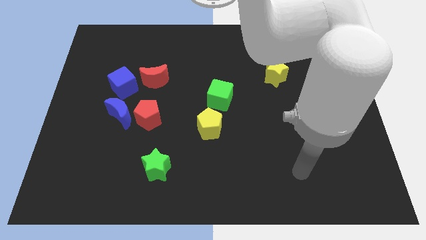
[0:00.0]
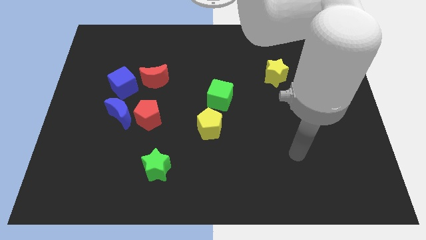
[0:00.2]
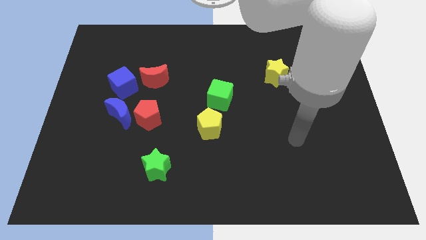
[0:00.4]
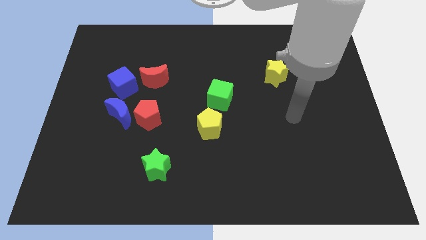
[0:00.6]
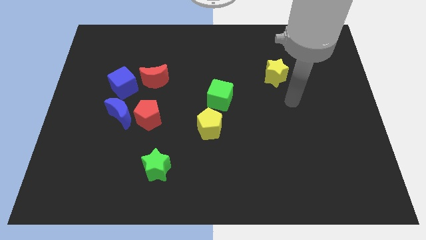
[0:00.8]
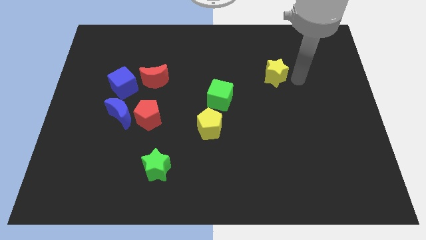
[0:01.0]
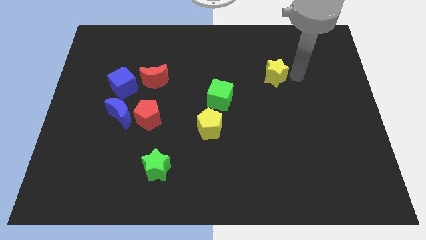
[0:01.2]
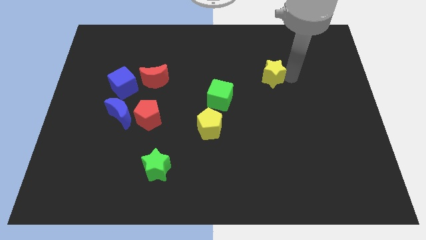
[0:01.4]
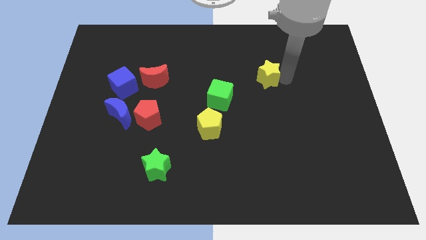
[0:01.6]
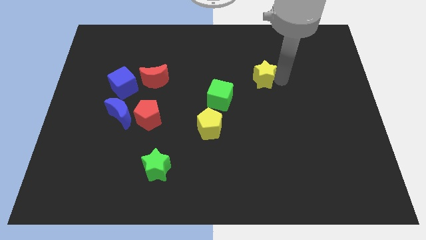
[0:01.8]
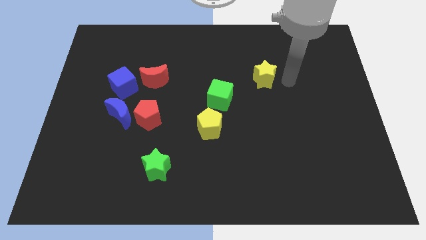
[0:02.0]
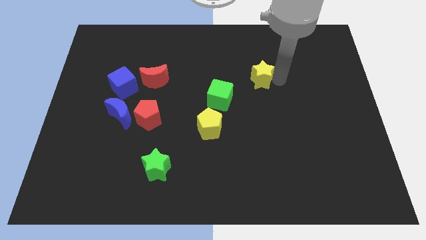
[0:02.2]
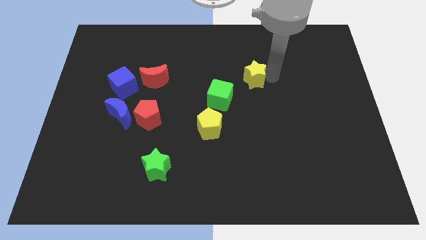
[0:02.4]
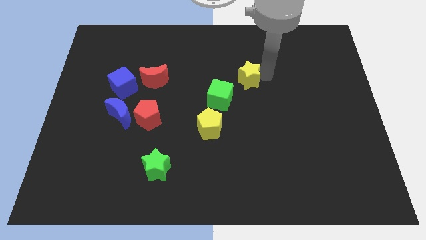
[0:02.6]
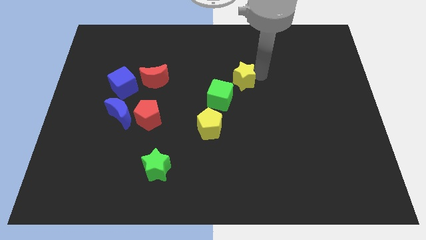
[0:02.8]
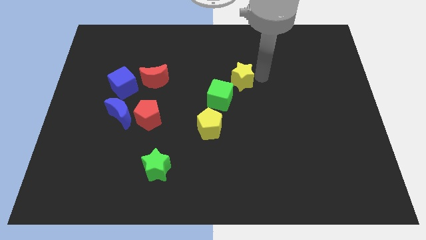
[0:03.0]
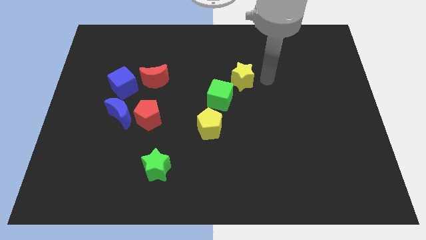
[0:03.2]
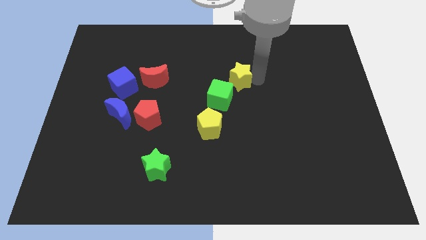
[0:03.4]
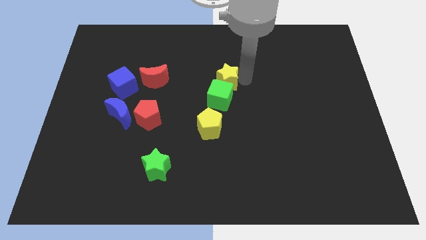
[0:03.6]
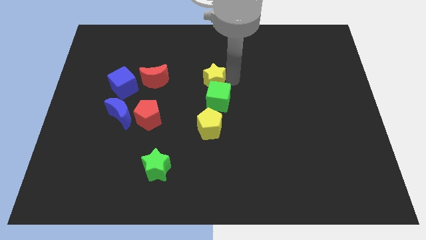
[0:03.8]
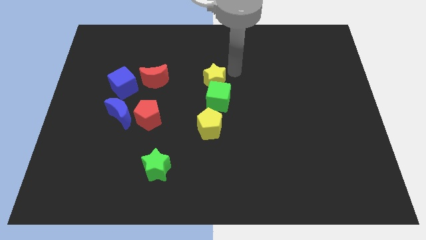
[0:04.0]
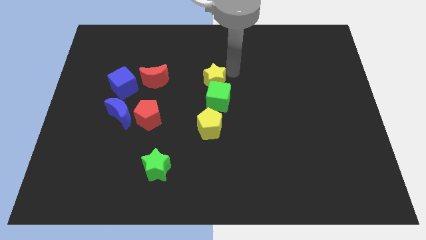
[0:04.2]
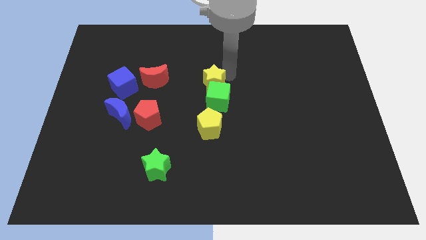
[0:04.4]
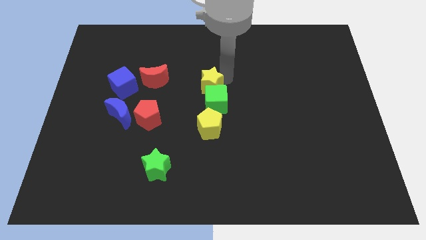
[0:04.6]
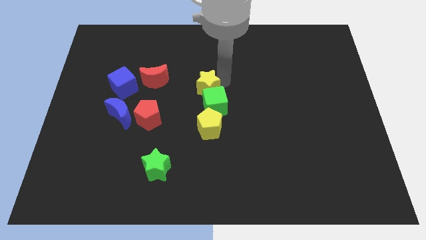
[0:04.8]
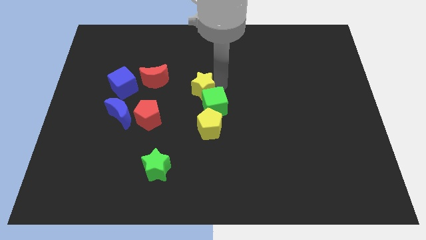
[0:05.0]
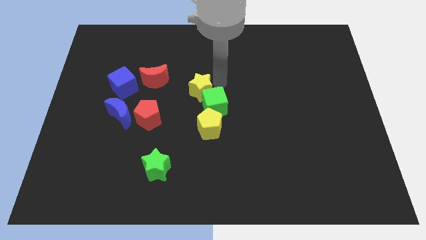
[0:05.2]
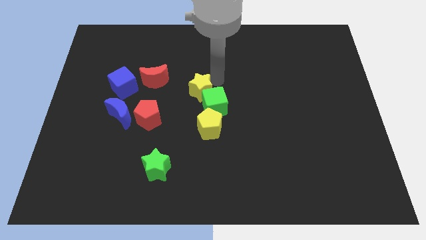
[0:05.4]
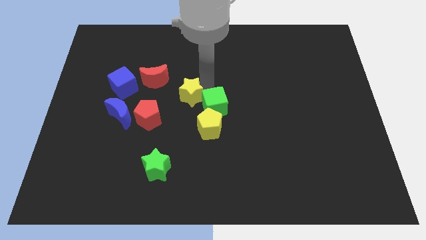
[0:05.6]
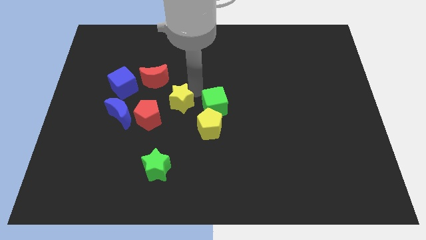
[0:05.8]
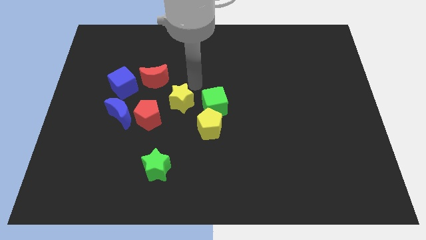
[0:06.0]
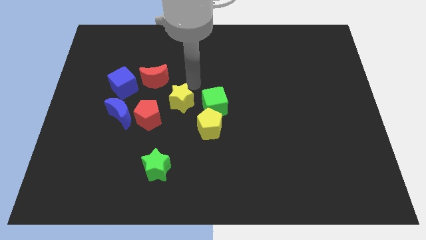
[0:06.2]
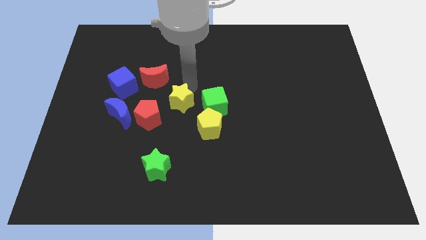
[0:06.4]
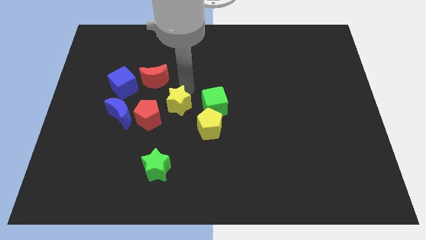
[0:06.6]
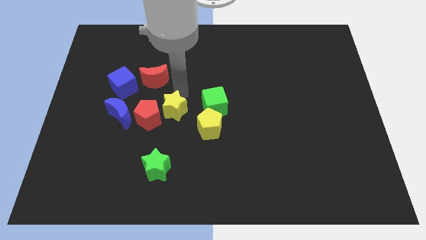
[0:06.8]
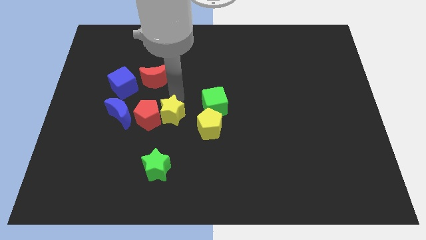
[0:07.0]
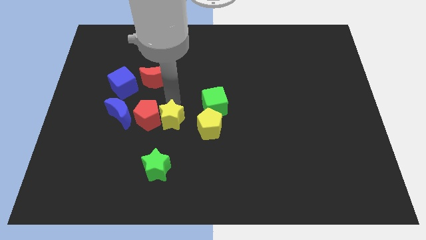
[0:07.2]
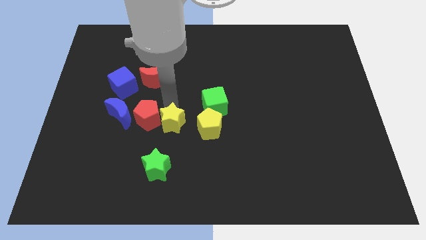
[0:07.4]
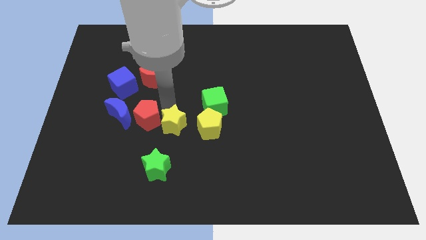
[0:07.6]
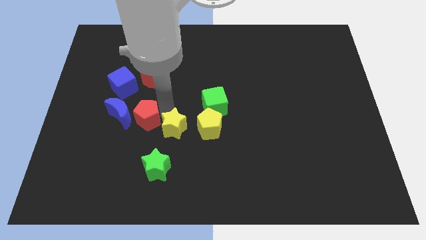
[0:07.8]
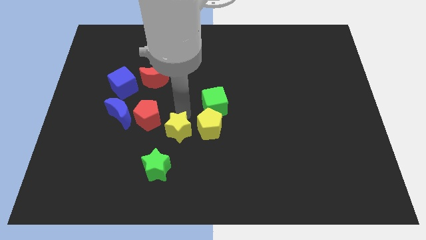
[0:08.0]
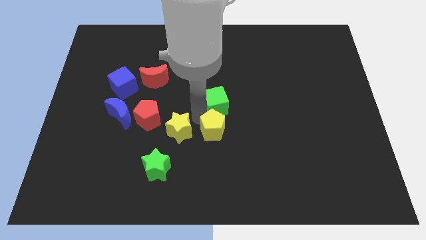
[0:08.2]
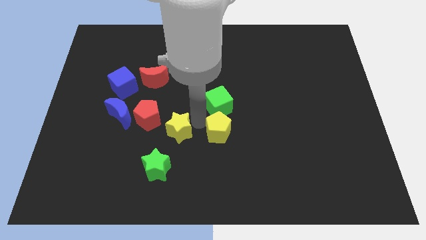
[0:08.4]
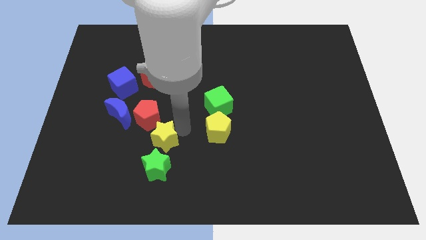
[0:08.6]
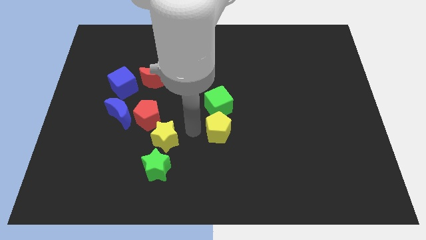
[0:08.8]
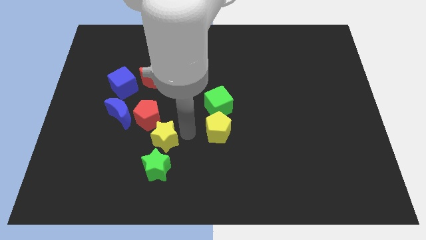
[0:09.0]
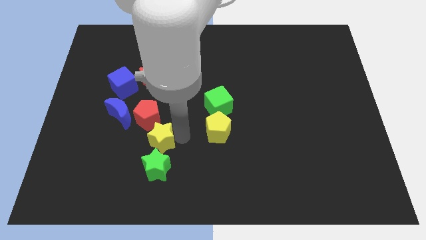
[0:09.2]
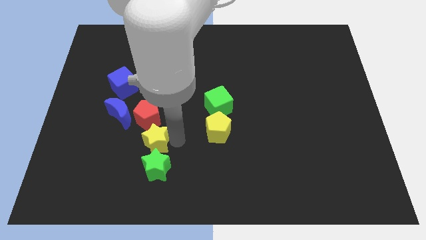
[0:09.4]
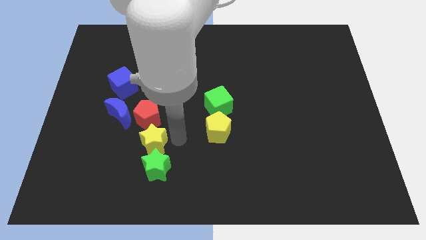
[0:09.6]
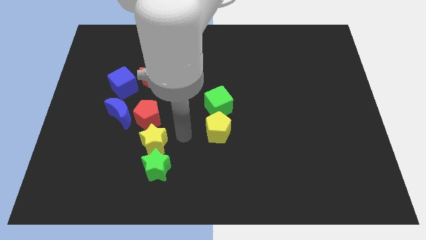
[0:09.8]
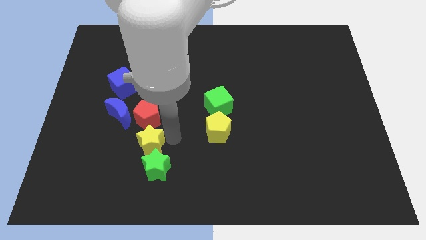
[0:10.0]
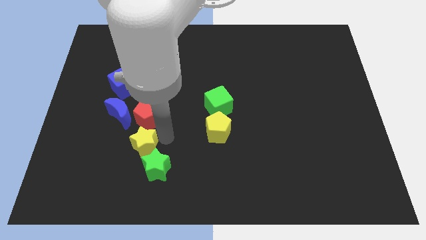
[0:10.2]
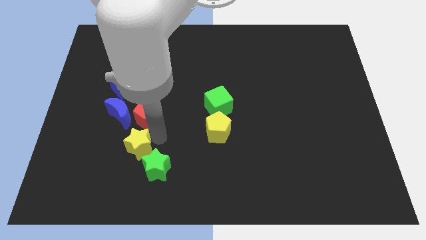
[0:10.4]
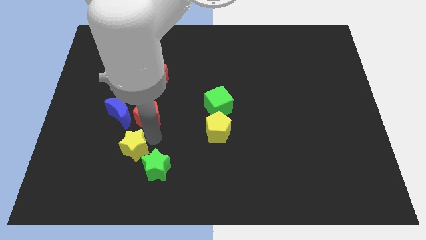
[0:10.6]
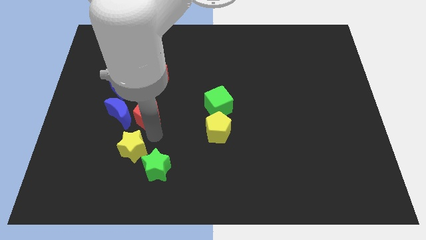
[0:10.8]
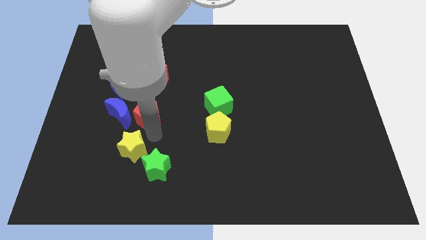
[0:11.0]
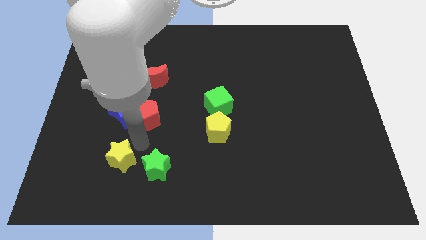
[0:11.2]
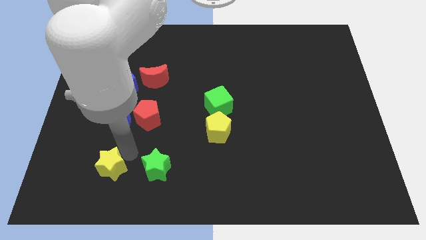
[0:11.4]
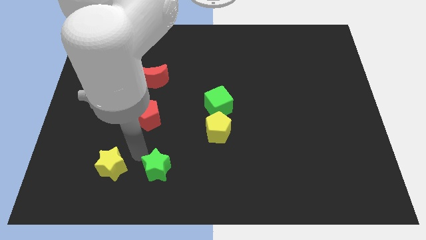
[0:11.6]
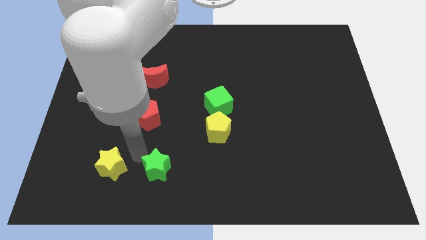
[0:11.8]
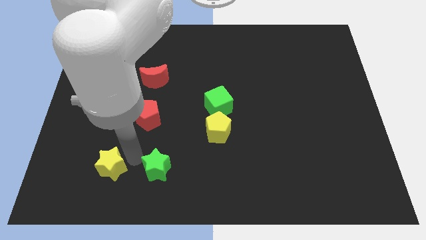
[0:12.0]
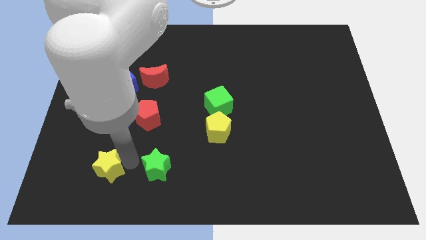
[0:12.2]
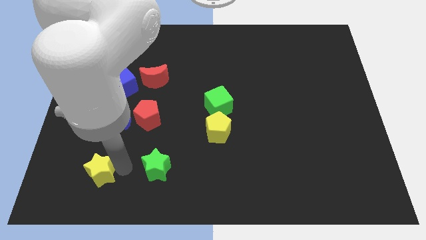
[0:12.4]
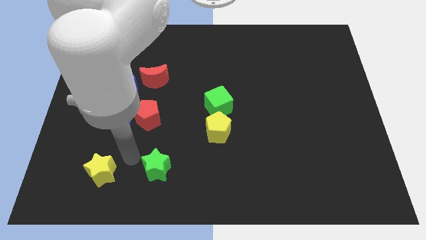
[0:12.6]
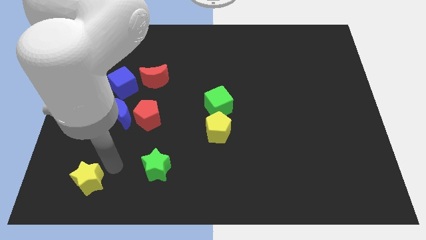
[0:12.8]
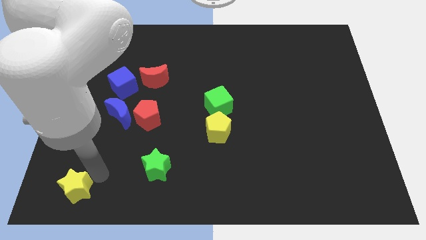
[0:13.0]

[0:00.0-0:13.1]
move the yellow star to the bottom left corner

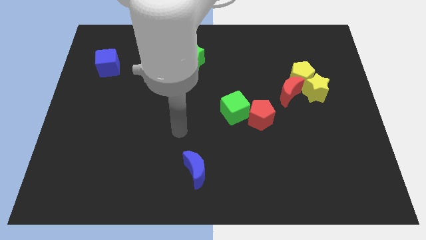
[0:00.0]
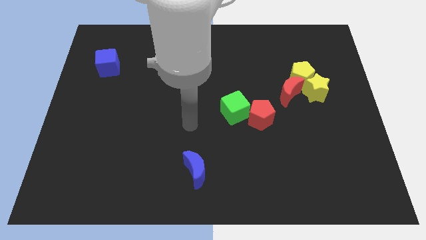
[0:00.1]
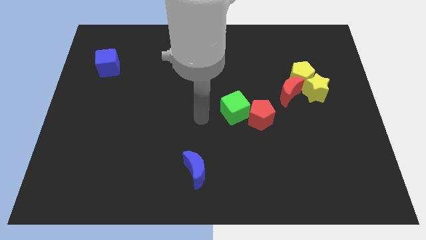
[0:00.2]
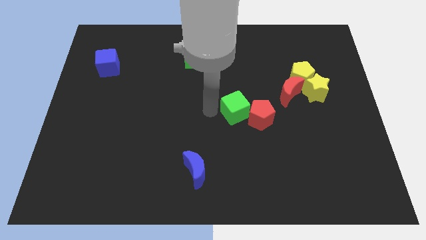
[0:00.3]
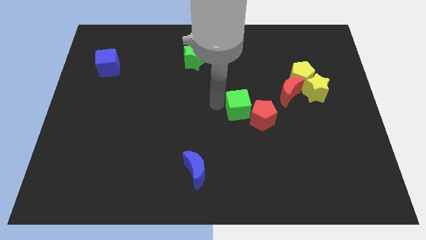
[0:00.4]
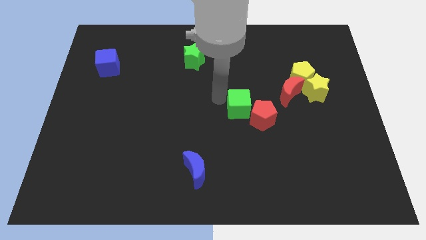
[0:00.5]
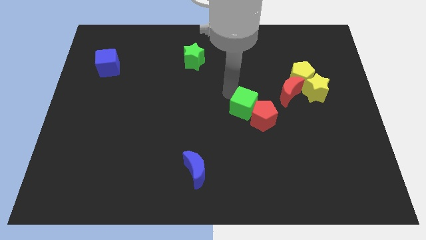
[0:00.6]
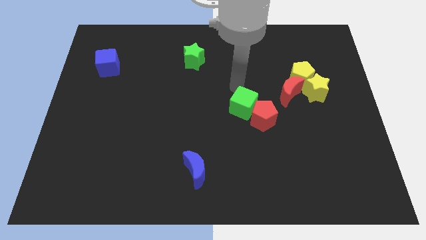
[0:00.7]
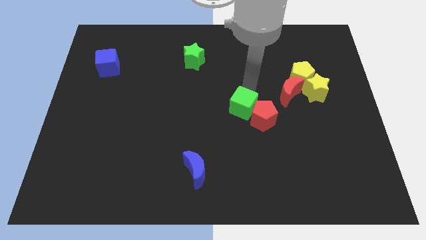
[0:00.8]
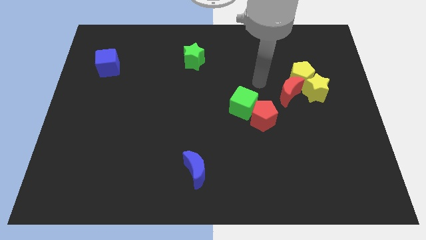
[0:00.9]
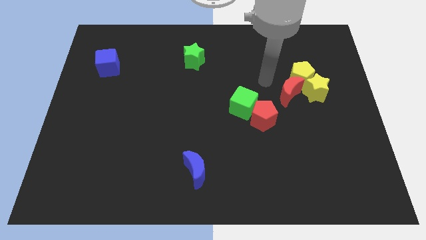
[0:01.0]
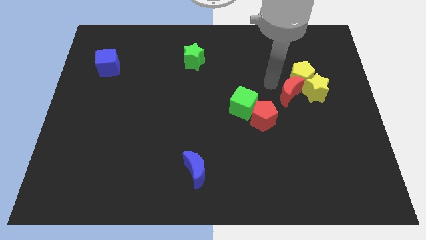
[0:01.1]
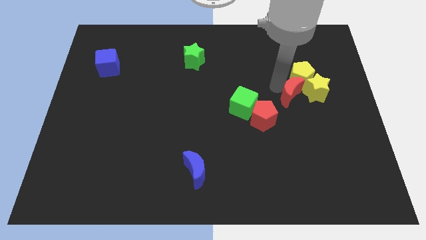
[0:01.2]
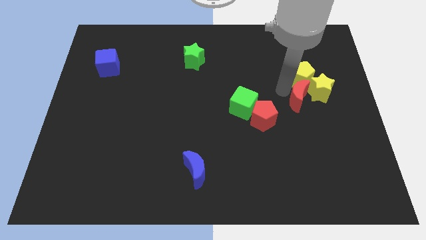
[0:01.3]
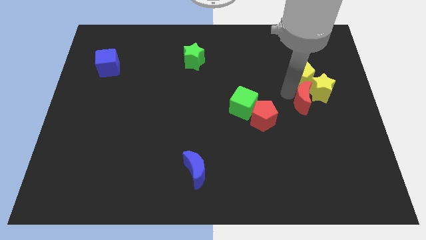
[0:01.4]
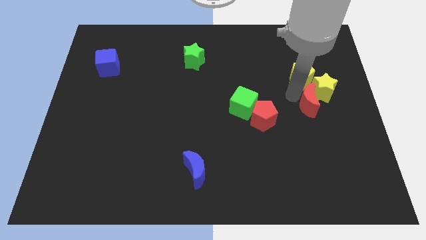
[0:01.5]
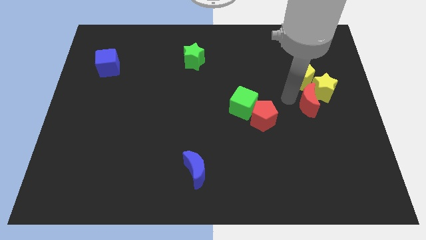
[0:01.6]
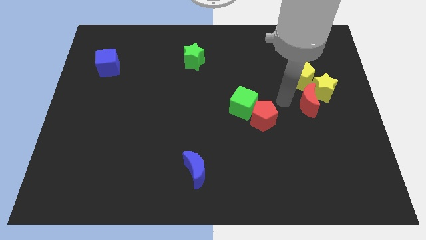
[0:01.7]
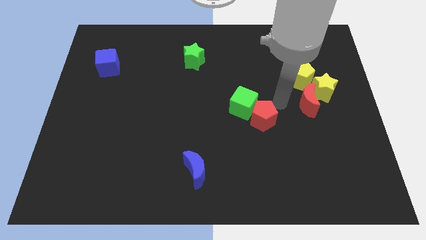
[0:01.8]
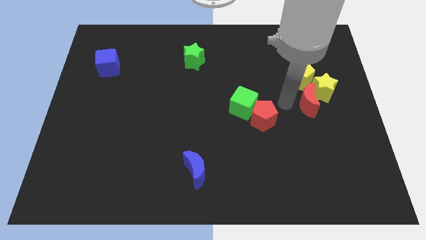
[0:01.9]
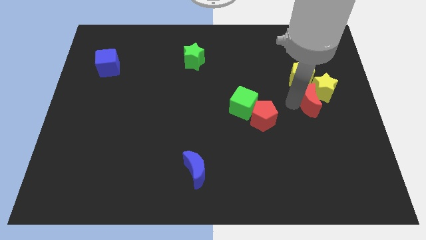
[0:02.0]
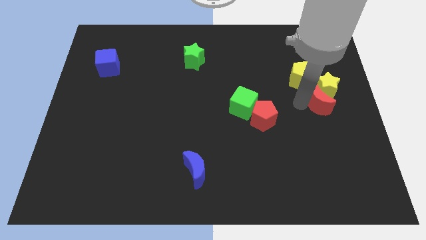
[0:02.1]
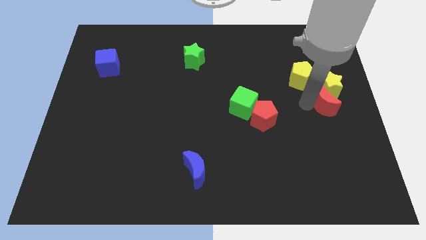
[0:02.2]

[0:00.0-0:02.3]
put the red moon to the right side
